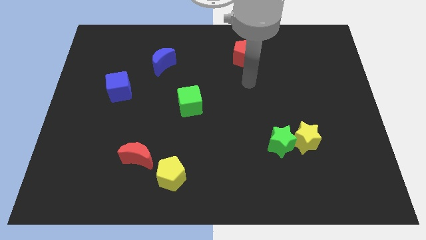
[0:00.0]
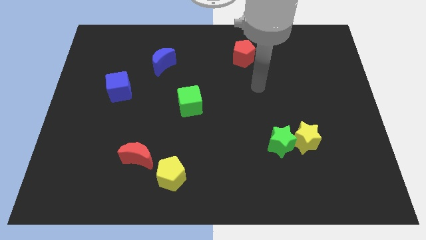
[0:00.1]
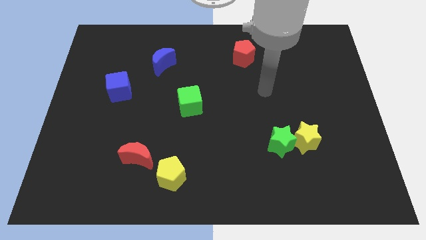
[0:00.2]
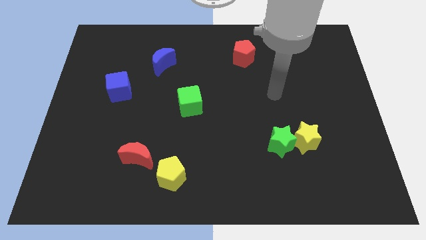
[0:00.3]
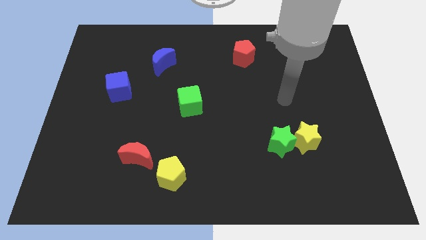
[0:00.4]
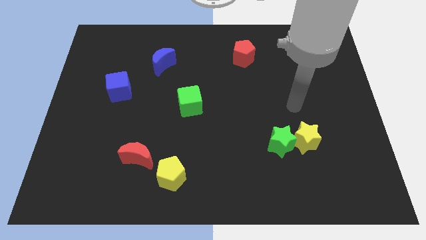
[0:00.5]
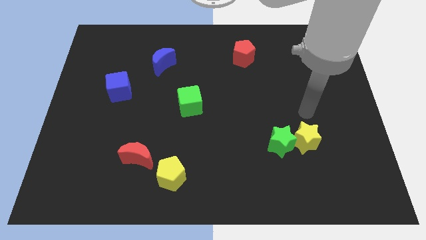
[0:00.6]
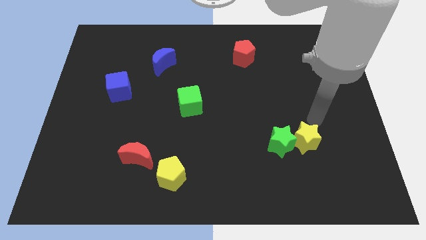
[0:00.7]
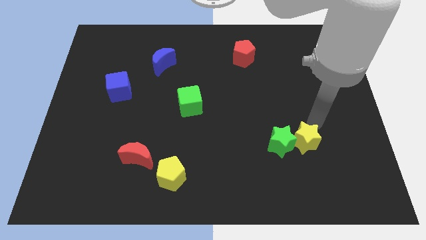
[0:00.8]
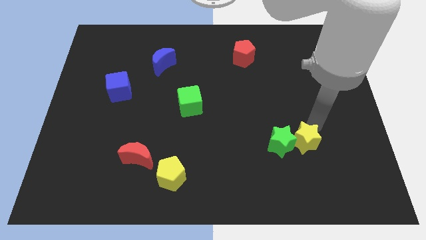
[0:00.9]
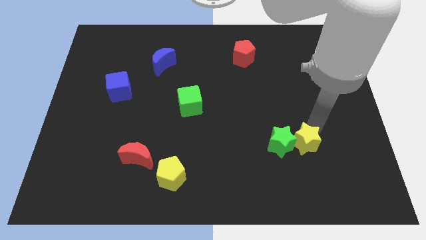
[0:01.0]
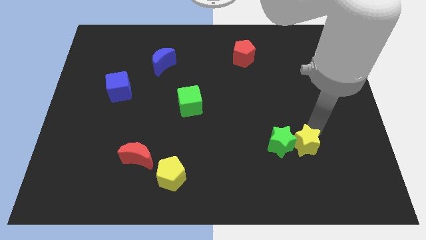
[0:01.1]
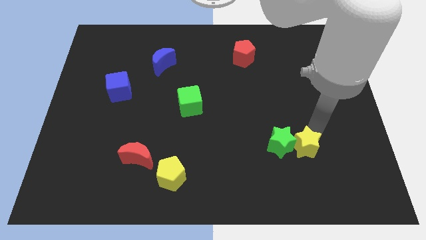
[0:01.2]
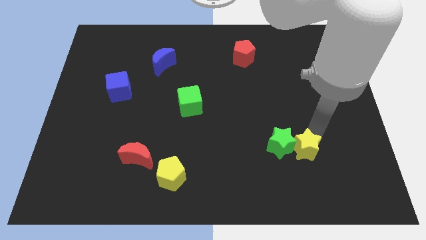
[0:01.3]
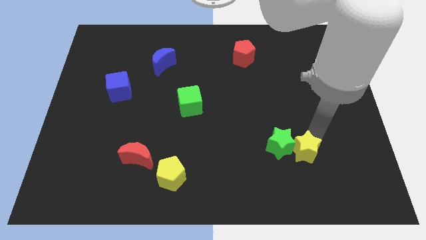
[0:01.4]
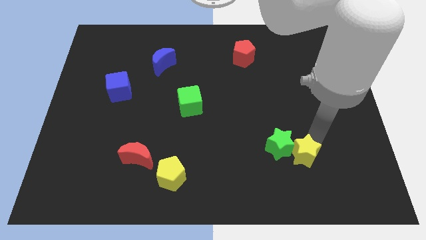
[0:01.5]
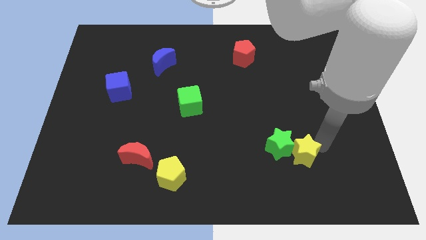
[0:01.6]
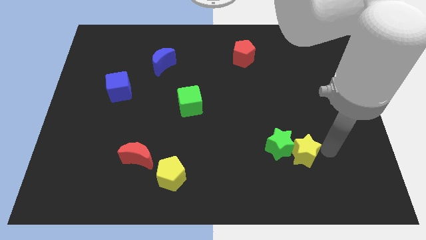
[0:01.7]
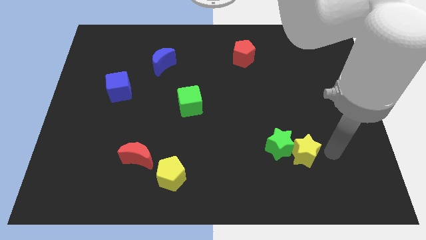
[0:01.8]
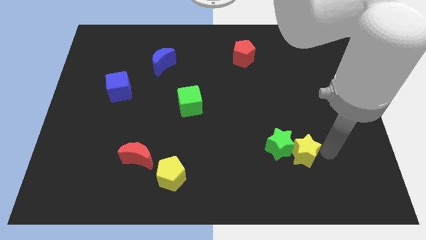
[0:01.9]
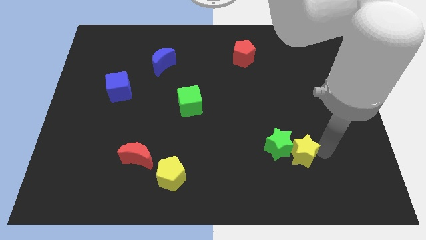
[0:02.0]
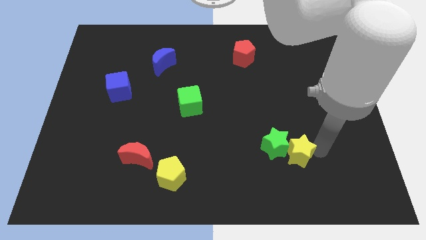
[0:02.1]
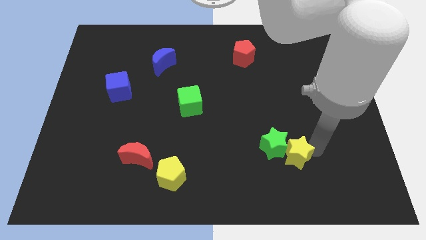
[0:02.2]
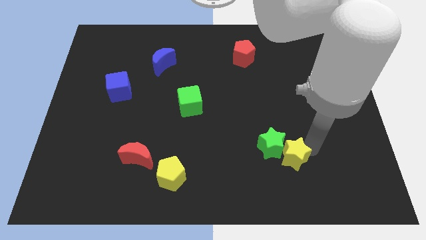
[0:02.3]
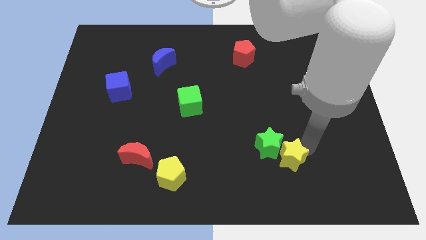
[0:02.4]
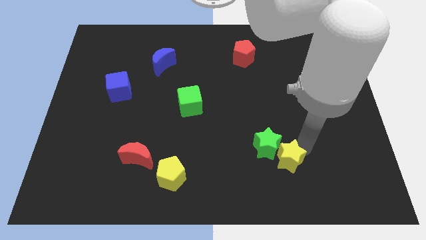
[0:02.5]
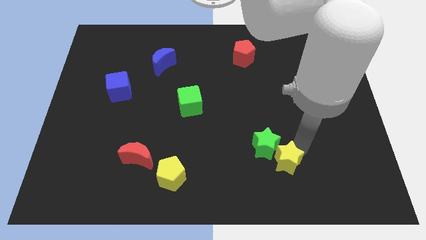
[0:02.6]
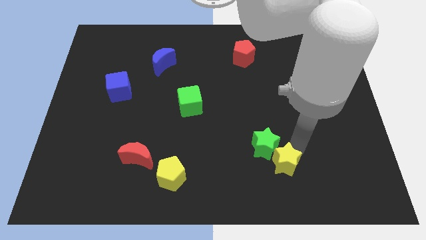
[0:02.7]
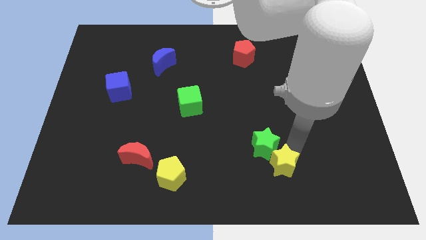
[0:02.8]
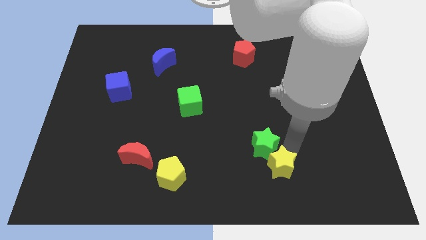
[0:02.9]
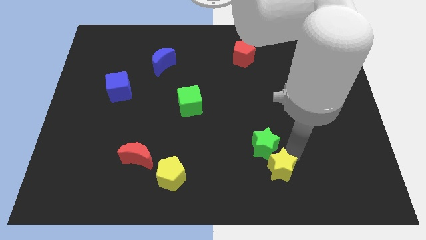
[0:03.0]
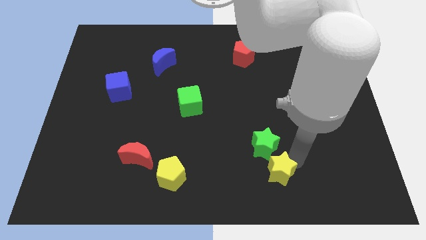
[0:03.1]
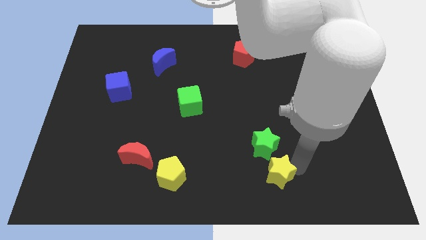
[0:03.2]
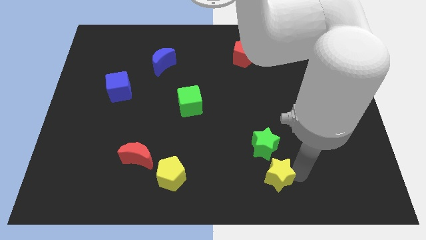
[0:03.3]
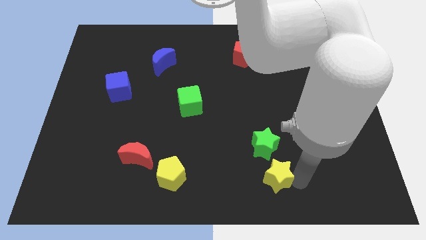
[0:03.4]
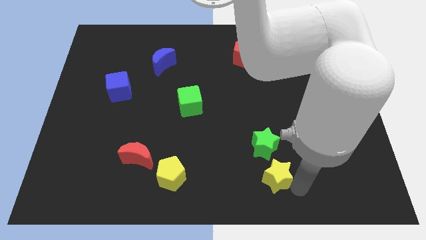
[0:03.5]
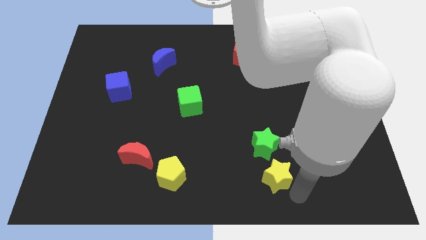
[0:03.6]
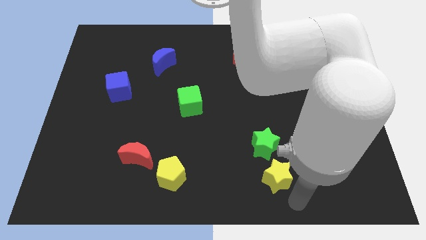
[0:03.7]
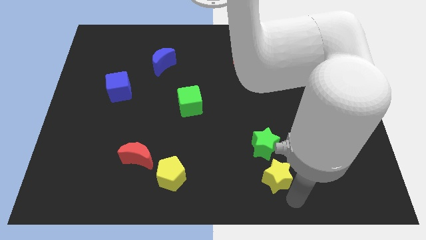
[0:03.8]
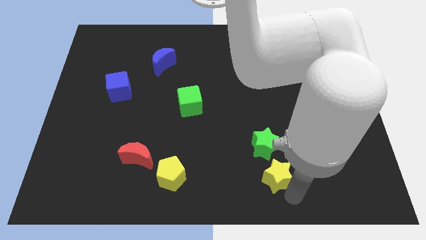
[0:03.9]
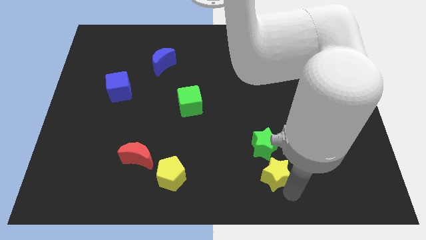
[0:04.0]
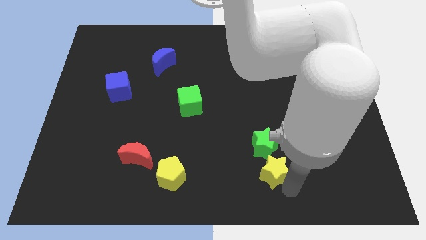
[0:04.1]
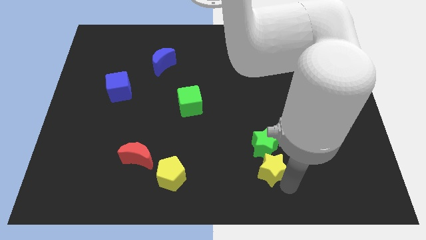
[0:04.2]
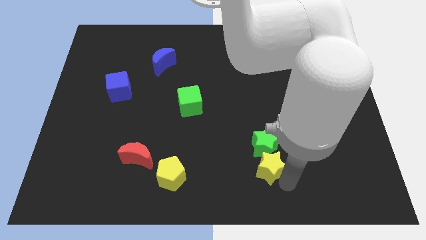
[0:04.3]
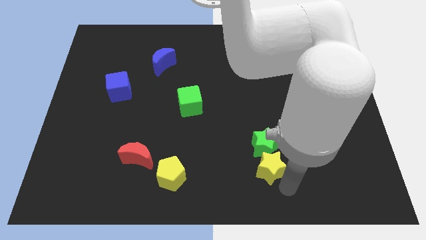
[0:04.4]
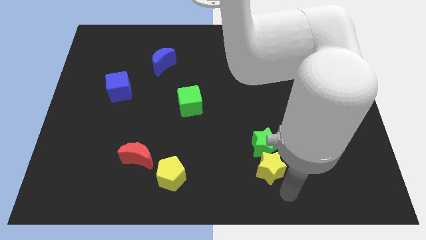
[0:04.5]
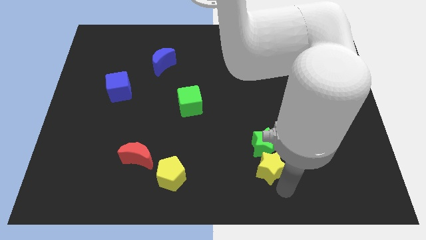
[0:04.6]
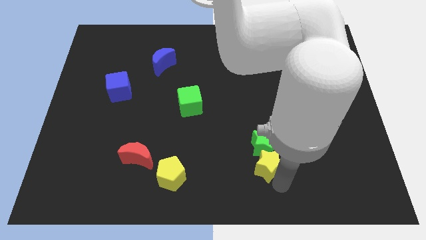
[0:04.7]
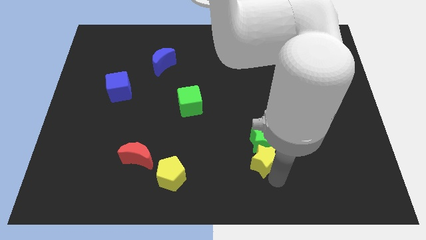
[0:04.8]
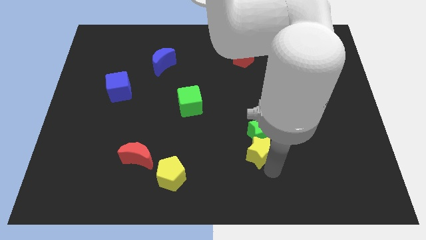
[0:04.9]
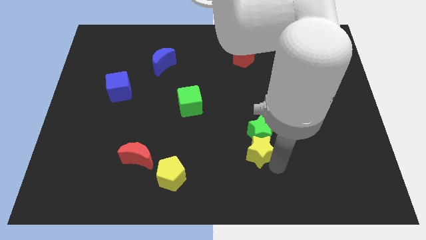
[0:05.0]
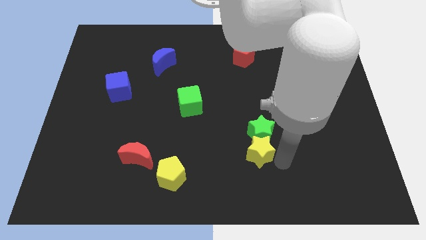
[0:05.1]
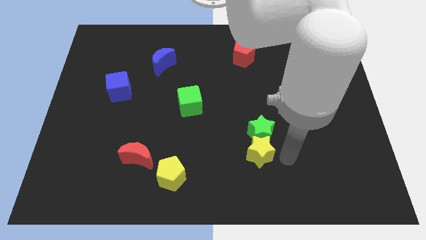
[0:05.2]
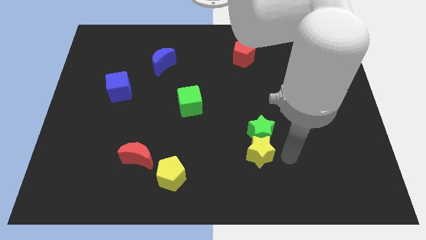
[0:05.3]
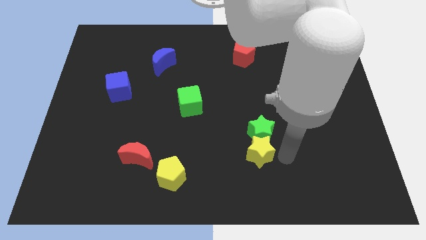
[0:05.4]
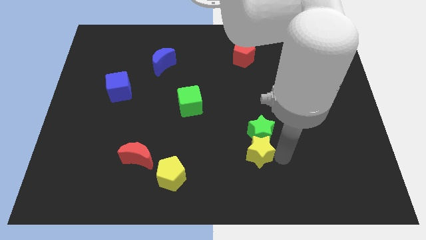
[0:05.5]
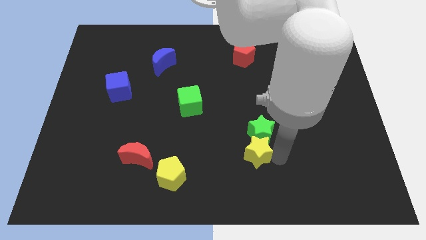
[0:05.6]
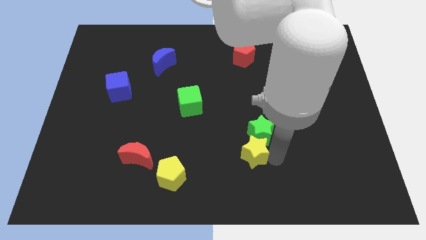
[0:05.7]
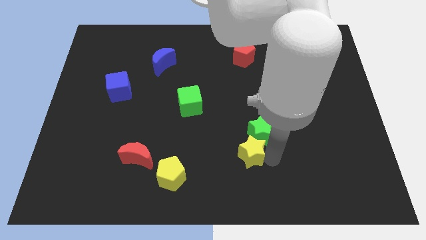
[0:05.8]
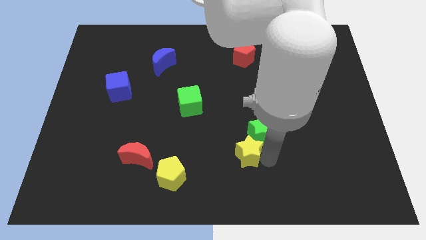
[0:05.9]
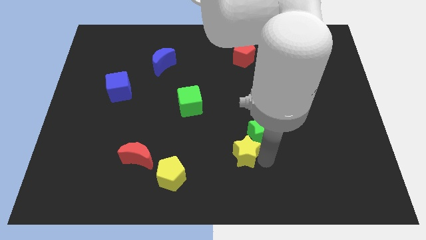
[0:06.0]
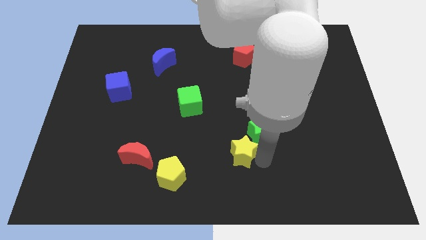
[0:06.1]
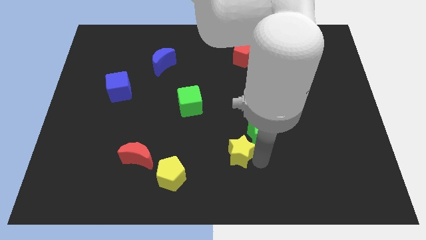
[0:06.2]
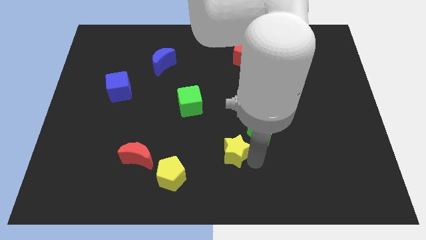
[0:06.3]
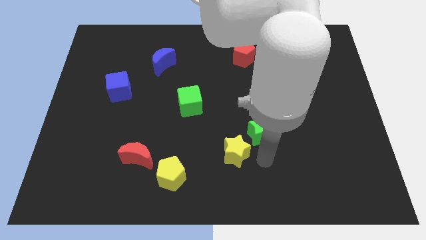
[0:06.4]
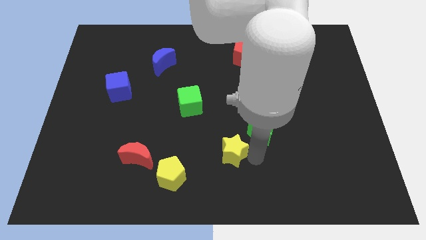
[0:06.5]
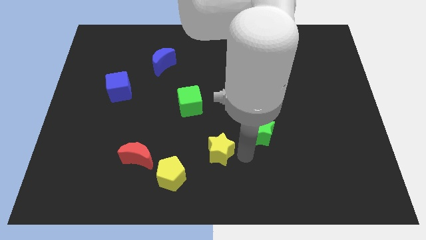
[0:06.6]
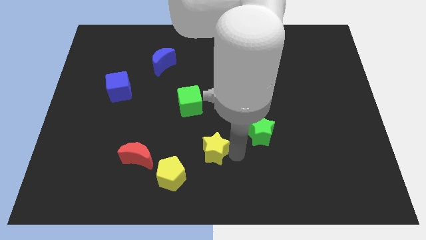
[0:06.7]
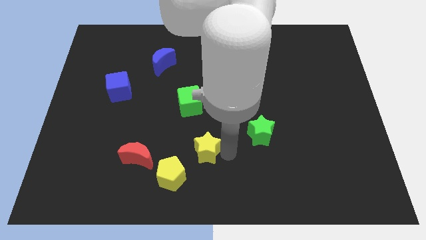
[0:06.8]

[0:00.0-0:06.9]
move the yellow star to the bottom of the green cube
